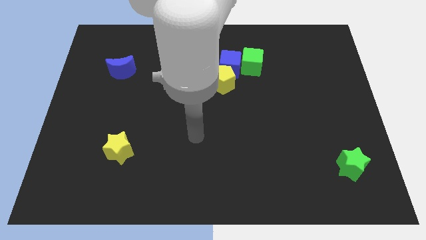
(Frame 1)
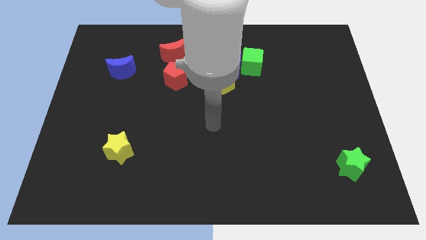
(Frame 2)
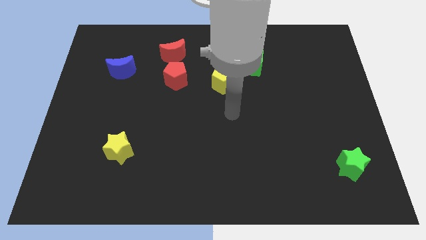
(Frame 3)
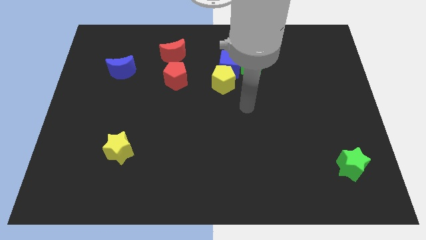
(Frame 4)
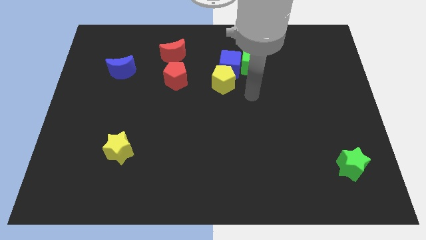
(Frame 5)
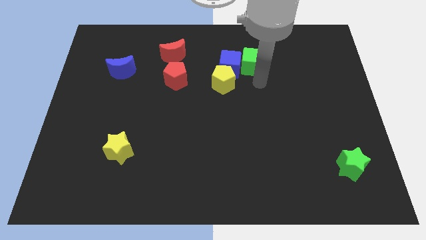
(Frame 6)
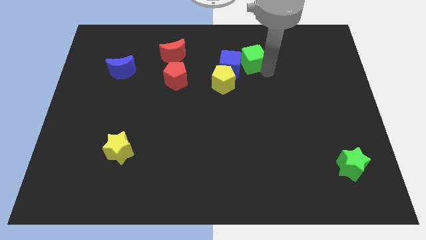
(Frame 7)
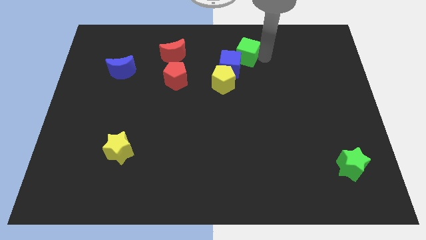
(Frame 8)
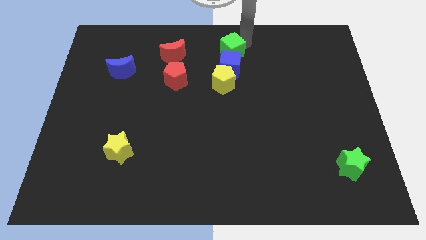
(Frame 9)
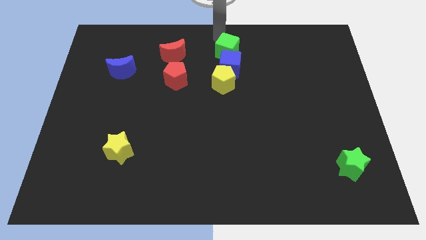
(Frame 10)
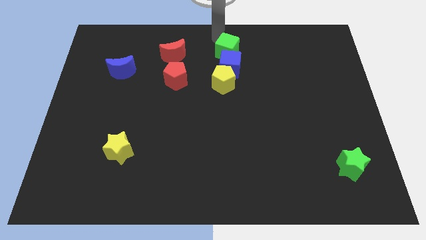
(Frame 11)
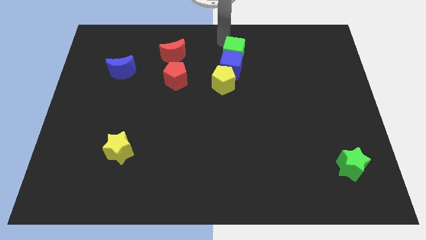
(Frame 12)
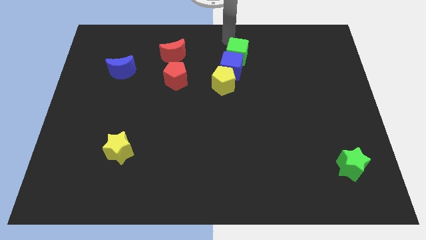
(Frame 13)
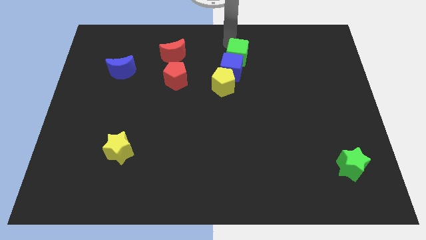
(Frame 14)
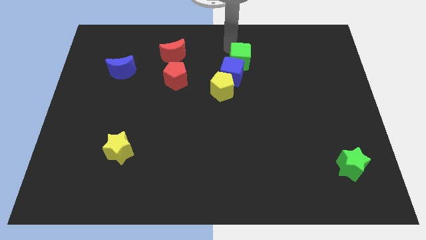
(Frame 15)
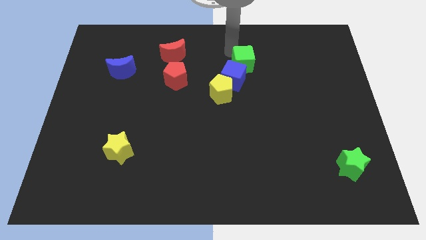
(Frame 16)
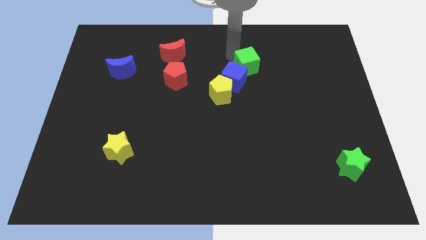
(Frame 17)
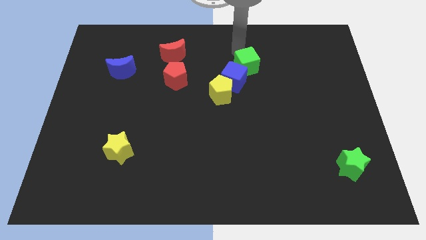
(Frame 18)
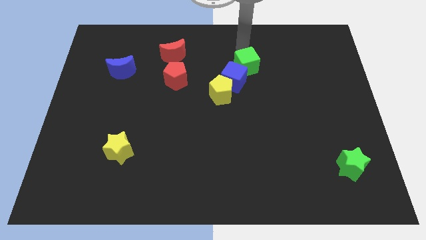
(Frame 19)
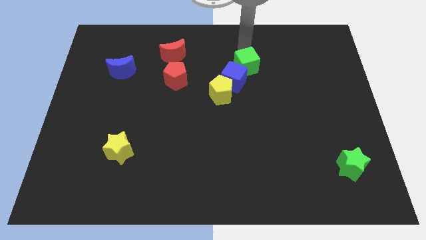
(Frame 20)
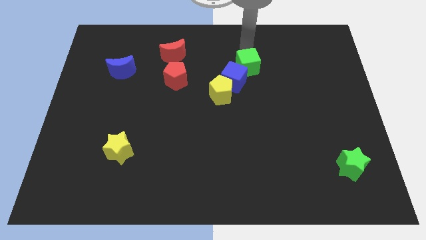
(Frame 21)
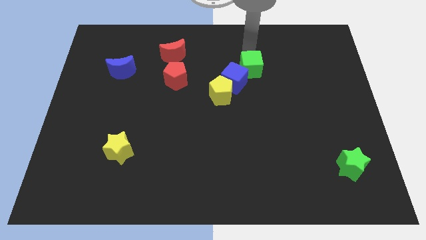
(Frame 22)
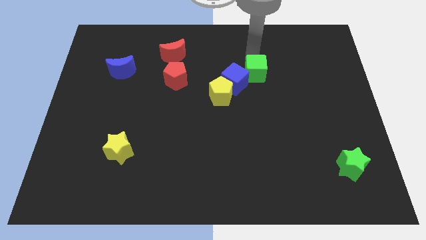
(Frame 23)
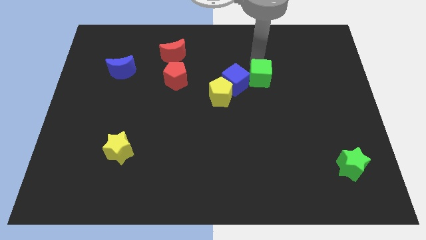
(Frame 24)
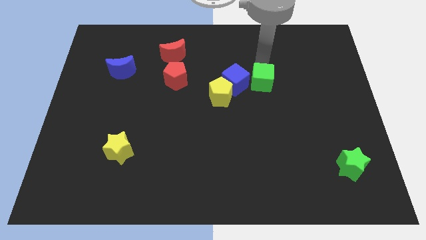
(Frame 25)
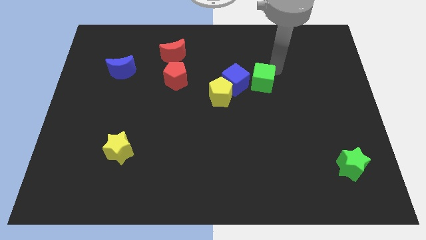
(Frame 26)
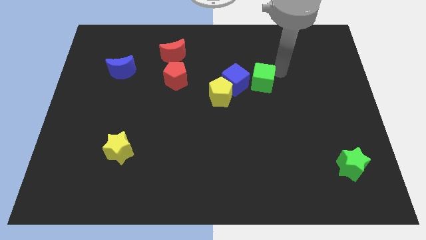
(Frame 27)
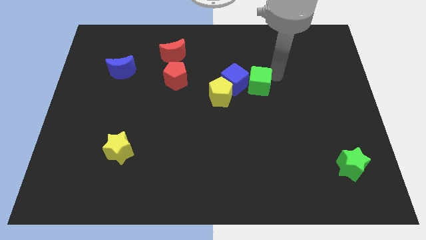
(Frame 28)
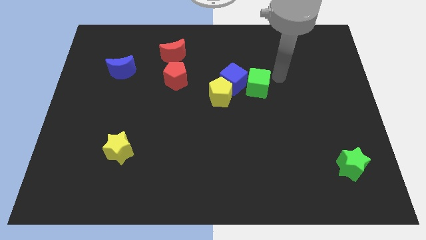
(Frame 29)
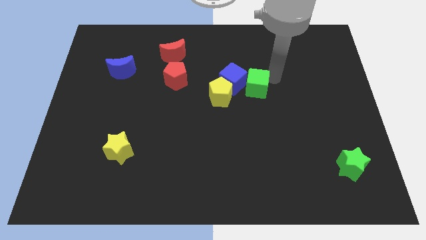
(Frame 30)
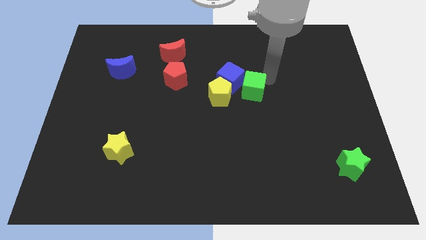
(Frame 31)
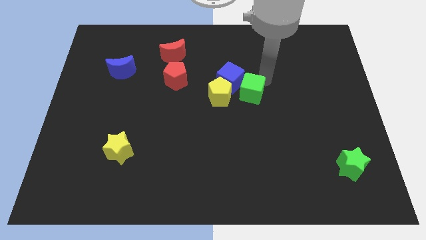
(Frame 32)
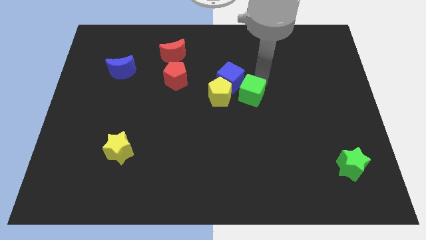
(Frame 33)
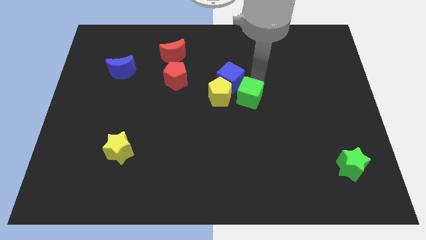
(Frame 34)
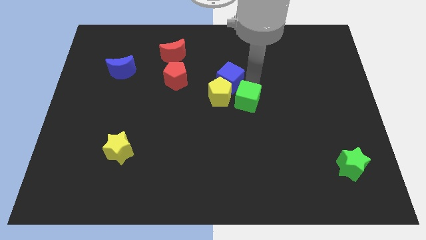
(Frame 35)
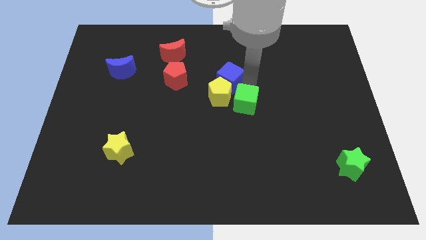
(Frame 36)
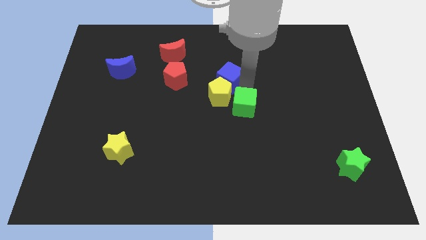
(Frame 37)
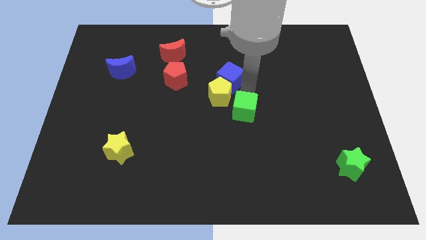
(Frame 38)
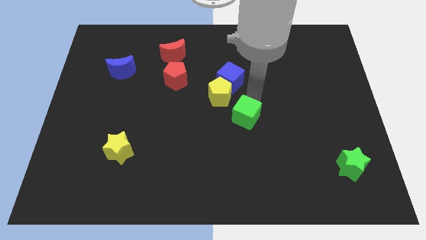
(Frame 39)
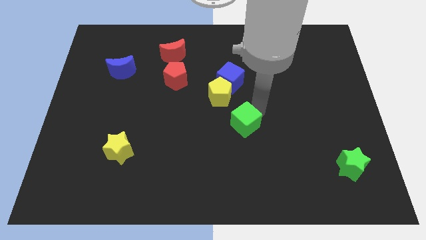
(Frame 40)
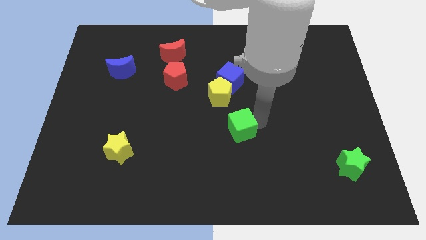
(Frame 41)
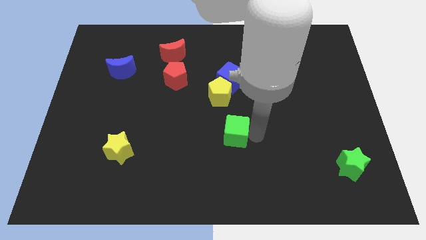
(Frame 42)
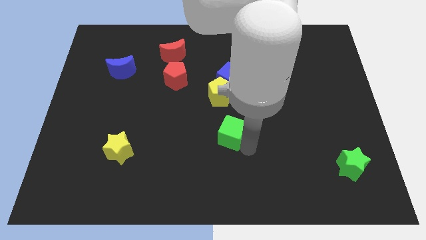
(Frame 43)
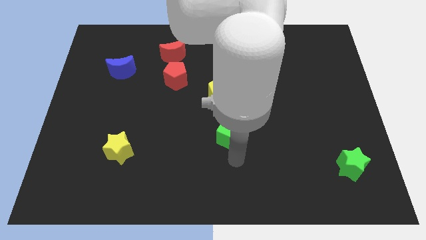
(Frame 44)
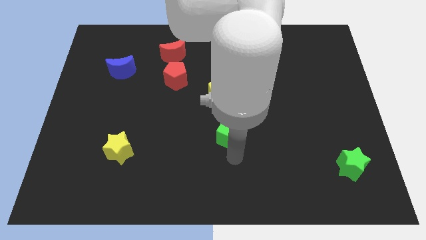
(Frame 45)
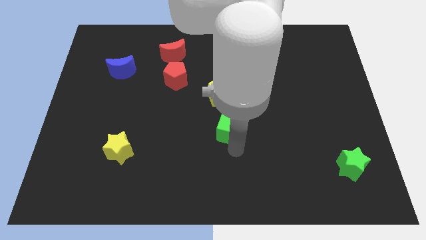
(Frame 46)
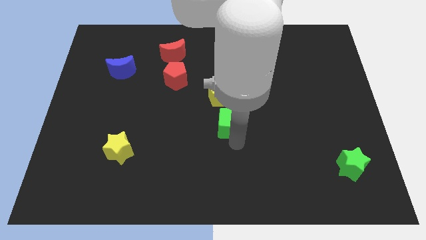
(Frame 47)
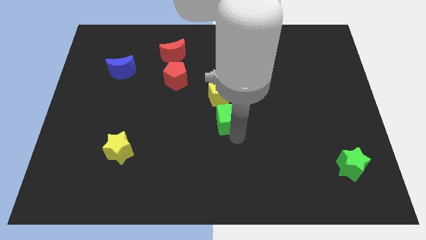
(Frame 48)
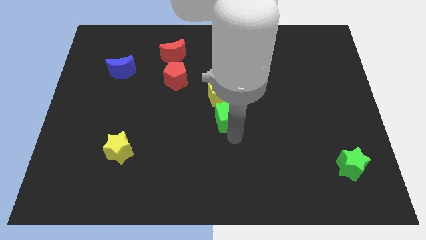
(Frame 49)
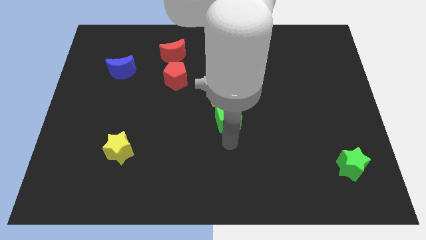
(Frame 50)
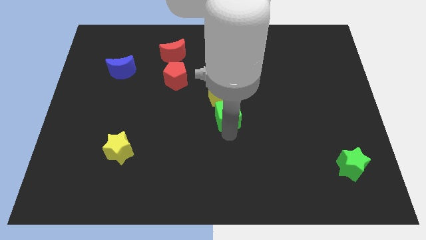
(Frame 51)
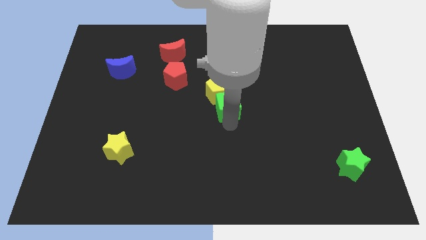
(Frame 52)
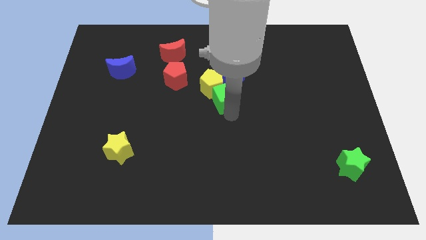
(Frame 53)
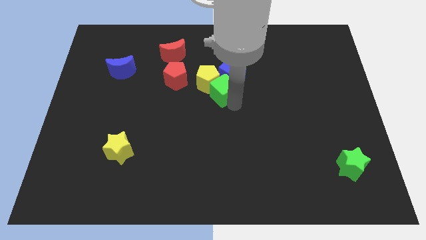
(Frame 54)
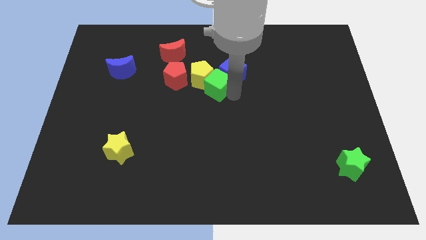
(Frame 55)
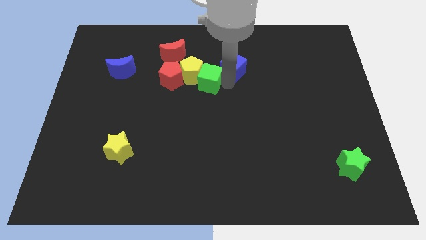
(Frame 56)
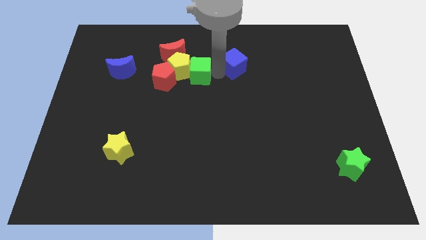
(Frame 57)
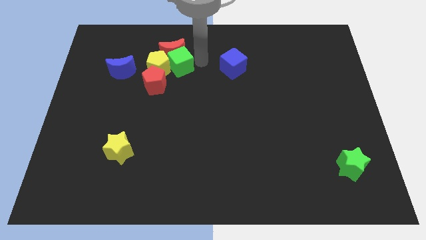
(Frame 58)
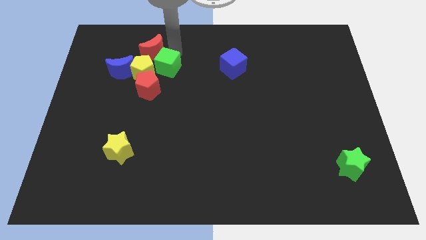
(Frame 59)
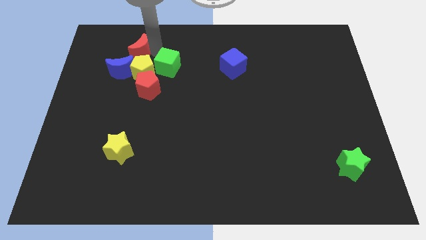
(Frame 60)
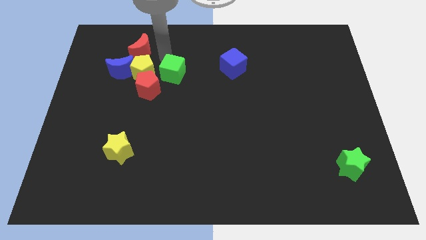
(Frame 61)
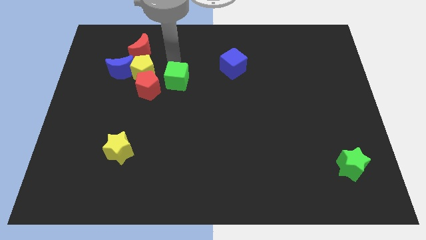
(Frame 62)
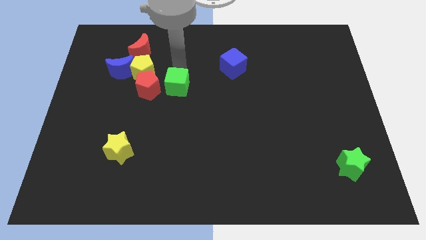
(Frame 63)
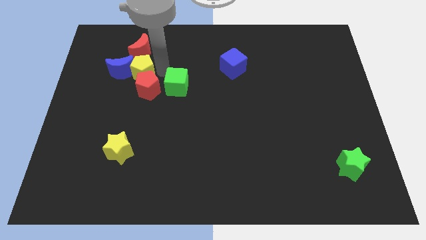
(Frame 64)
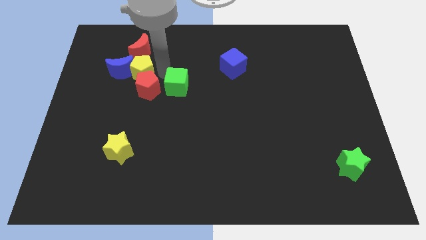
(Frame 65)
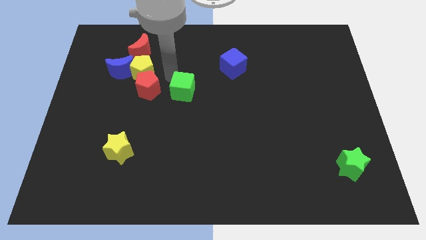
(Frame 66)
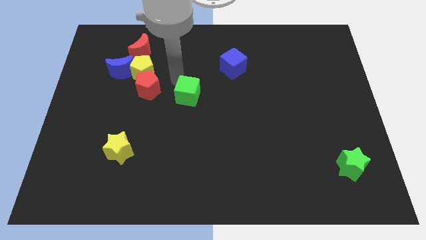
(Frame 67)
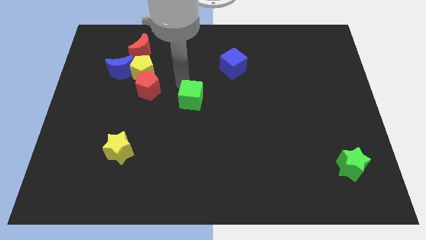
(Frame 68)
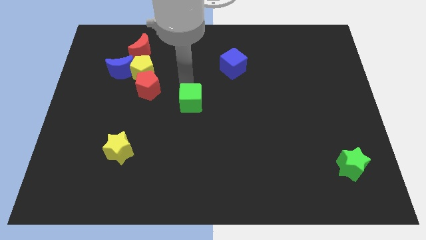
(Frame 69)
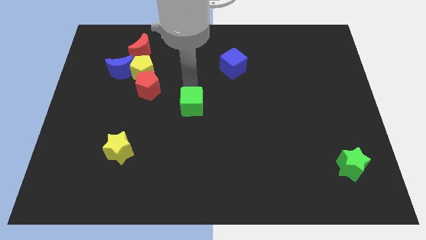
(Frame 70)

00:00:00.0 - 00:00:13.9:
slide the green cube down and left

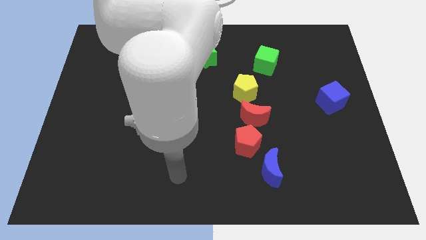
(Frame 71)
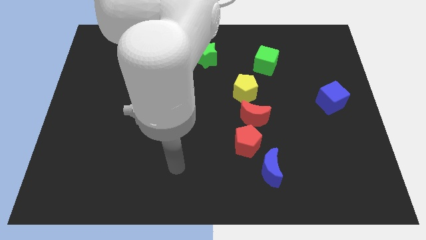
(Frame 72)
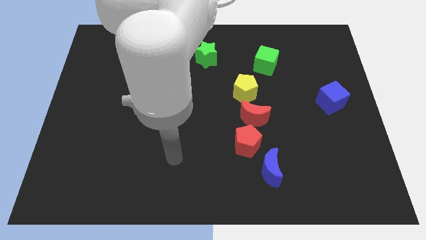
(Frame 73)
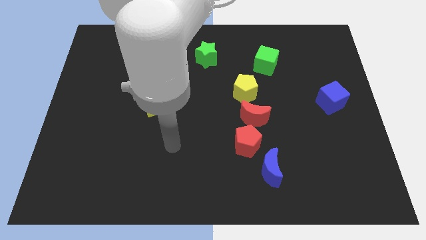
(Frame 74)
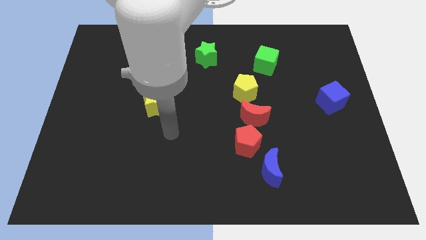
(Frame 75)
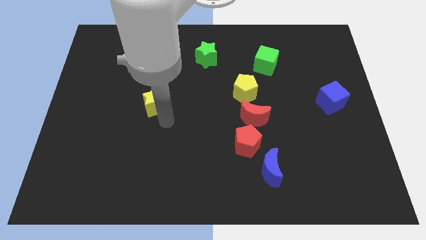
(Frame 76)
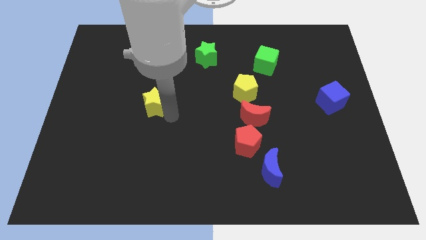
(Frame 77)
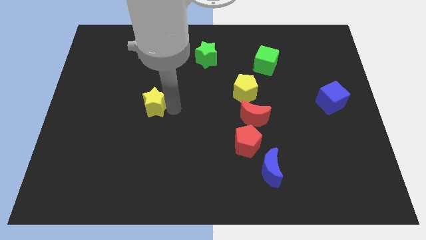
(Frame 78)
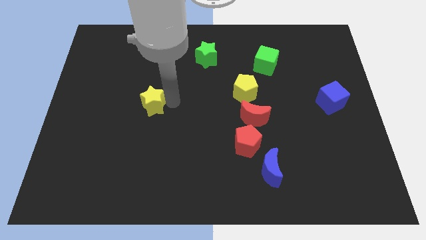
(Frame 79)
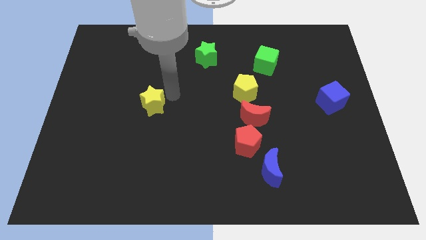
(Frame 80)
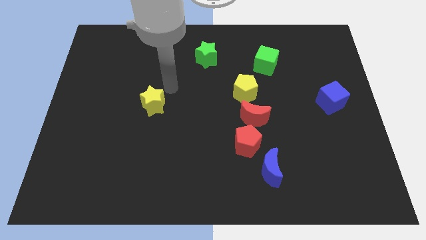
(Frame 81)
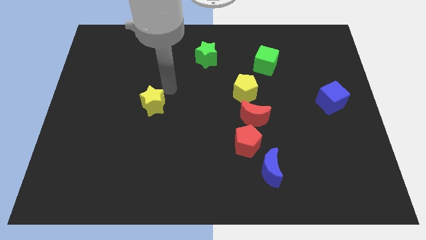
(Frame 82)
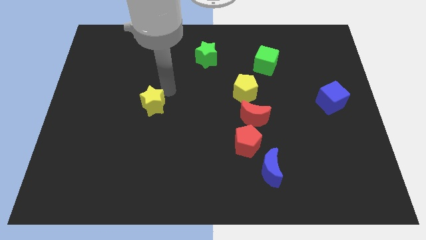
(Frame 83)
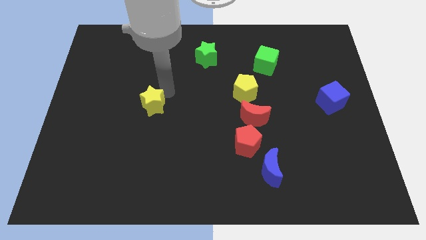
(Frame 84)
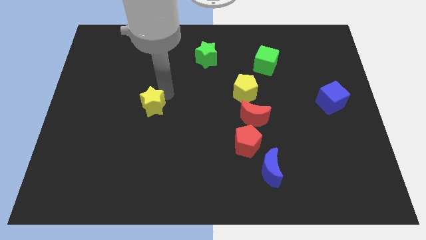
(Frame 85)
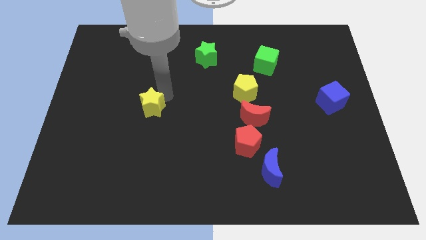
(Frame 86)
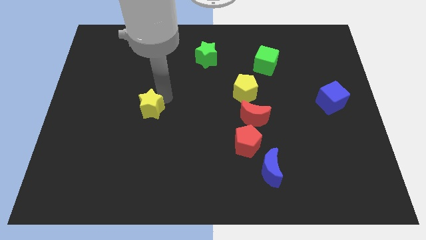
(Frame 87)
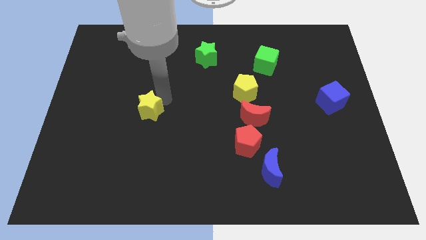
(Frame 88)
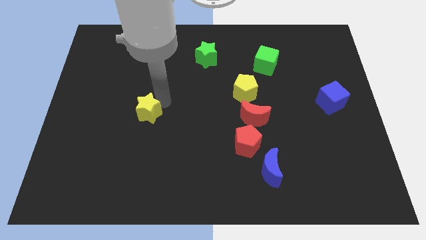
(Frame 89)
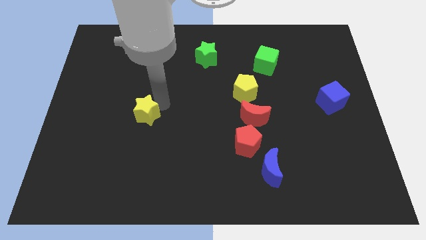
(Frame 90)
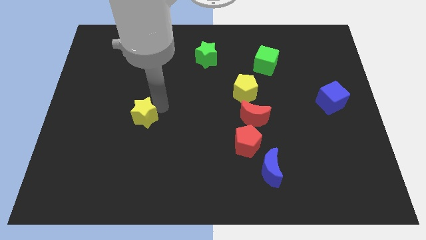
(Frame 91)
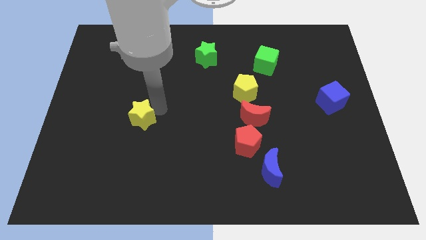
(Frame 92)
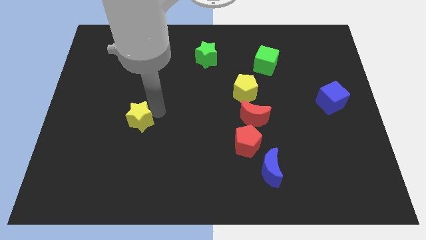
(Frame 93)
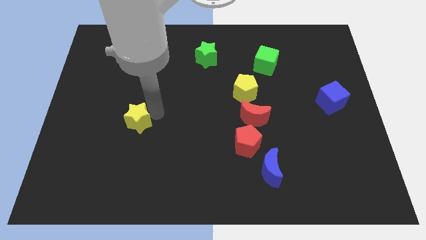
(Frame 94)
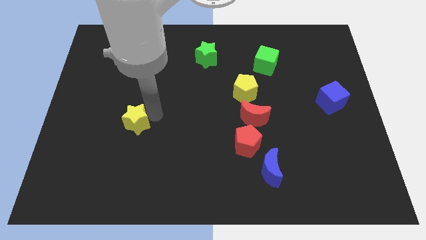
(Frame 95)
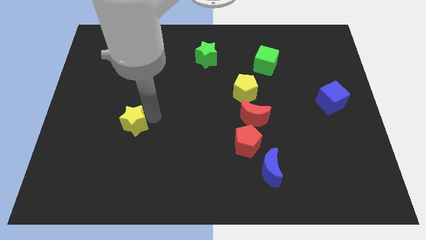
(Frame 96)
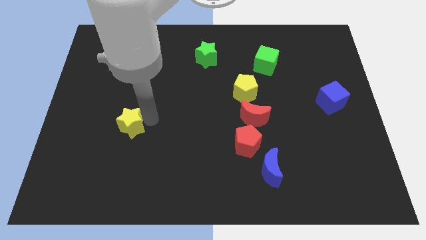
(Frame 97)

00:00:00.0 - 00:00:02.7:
slightly push the yellow star downwards and then left
